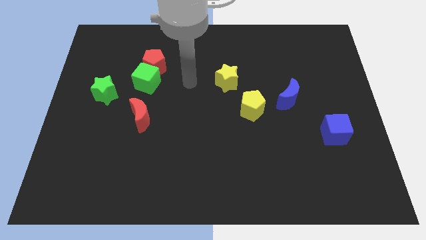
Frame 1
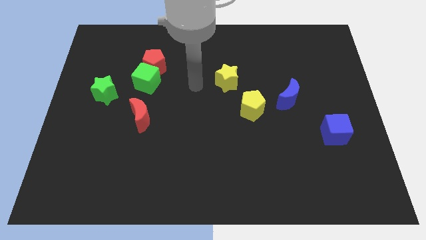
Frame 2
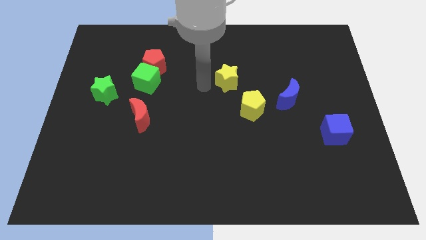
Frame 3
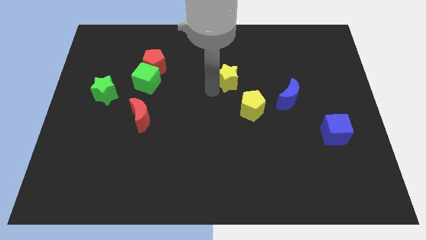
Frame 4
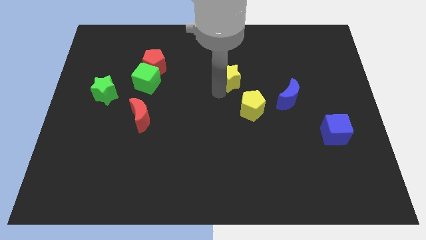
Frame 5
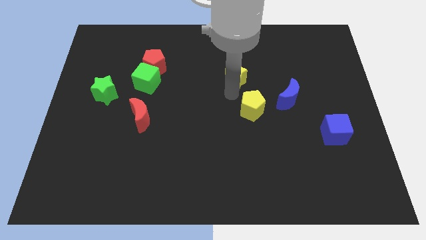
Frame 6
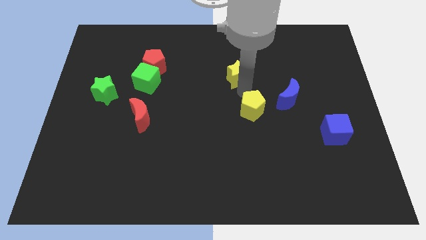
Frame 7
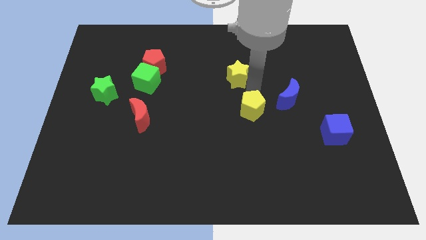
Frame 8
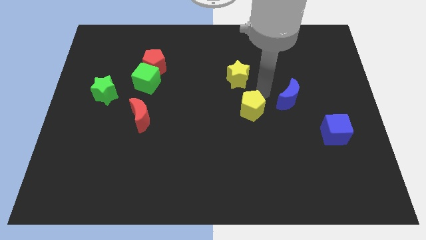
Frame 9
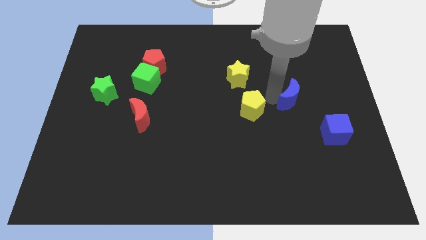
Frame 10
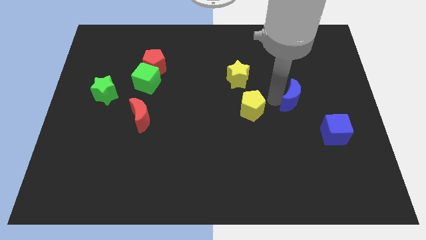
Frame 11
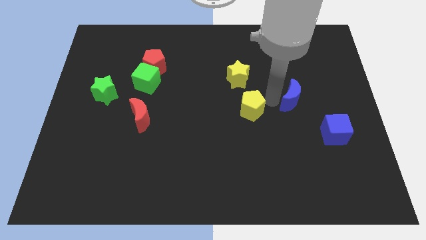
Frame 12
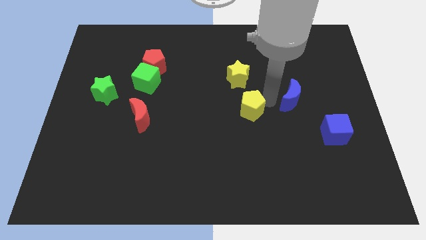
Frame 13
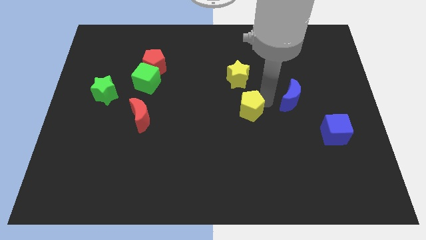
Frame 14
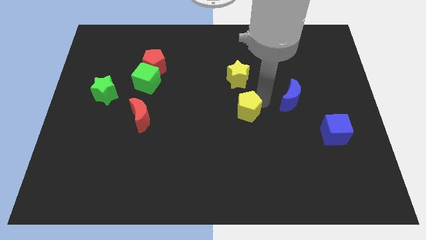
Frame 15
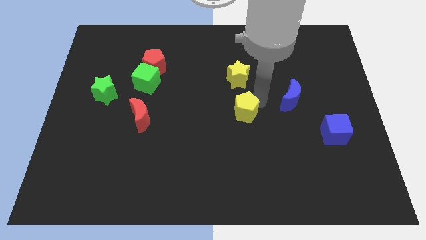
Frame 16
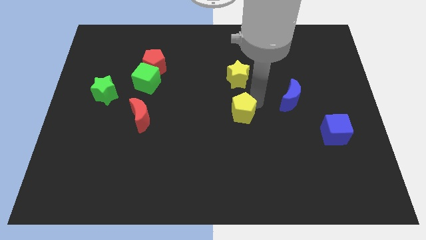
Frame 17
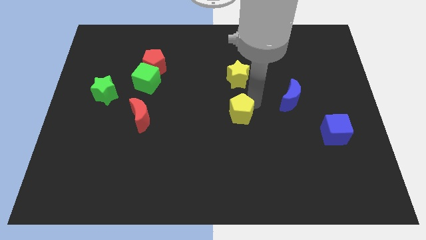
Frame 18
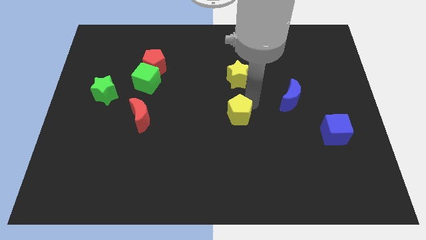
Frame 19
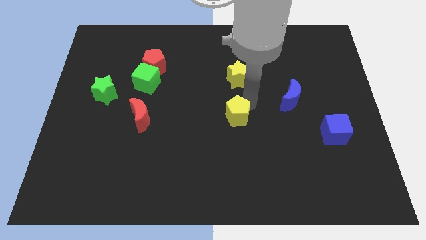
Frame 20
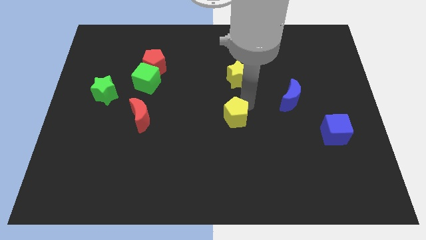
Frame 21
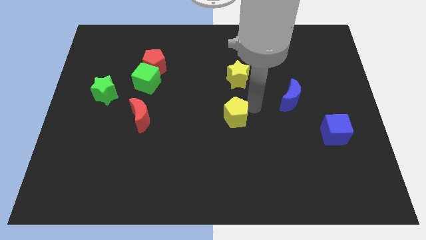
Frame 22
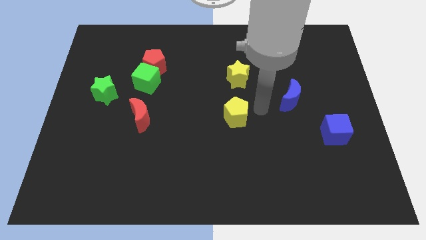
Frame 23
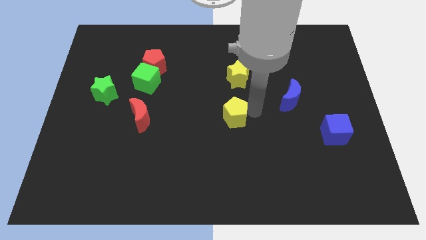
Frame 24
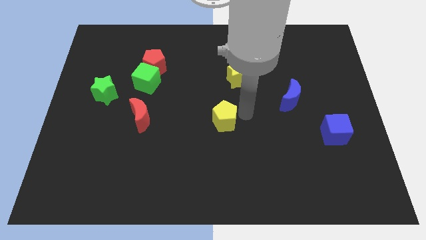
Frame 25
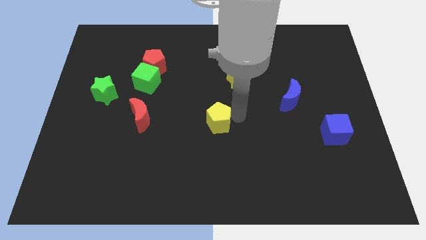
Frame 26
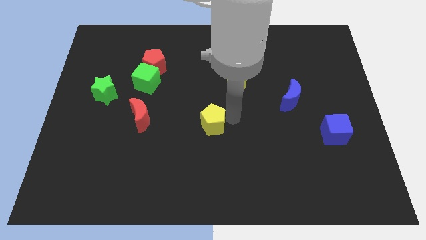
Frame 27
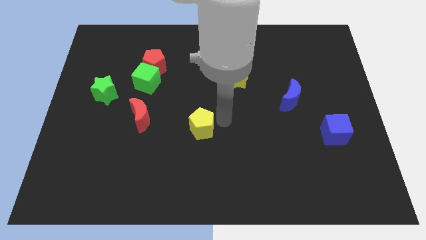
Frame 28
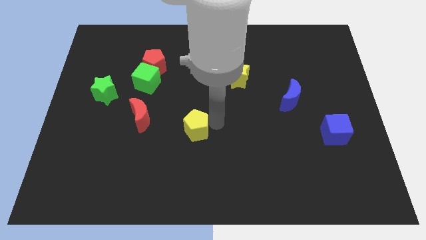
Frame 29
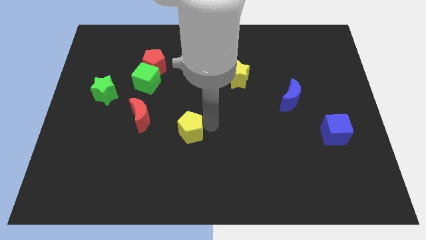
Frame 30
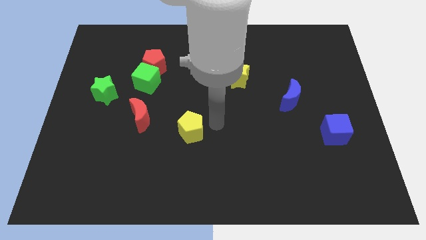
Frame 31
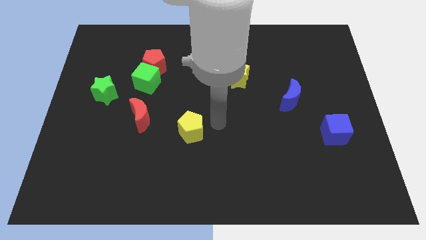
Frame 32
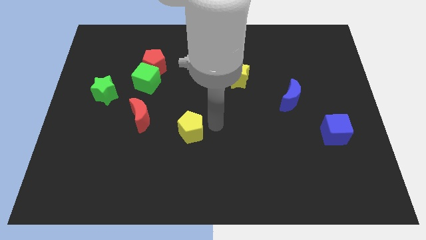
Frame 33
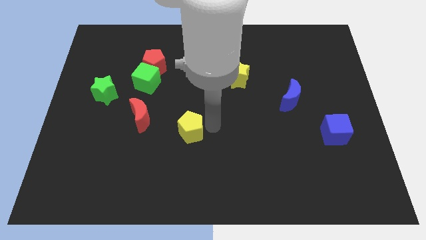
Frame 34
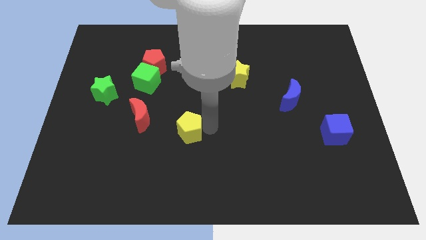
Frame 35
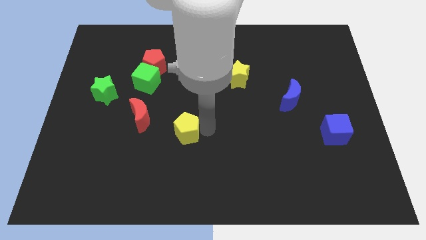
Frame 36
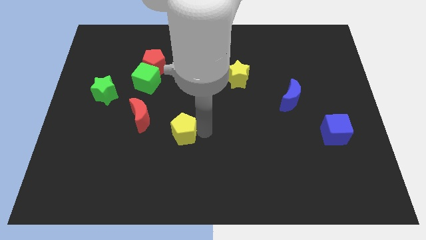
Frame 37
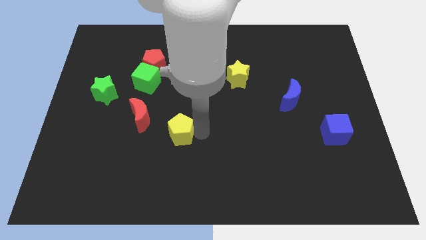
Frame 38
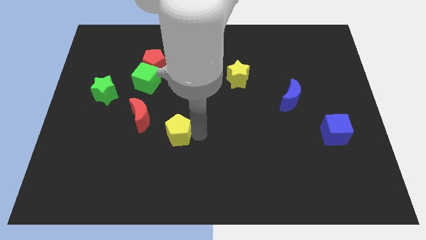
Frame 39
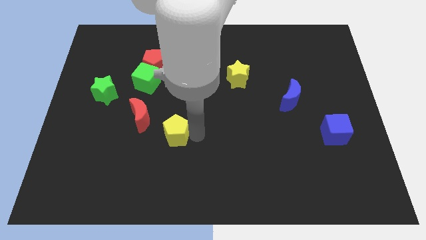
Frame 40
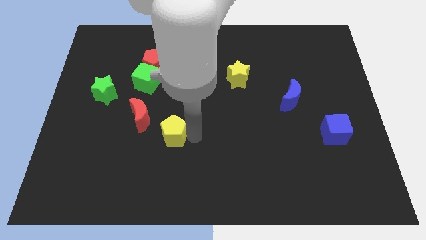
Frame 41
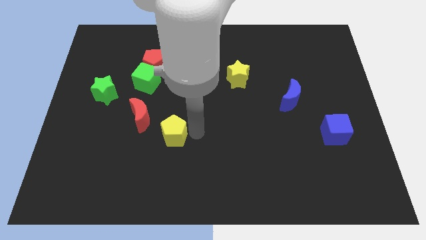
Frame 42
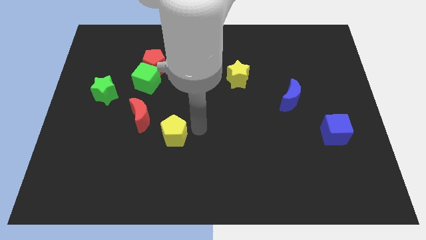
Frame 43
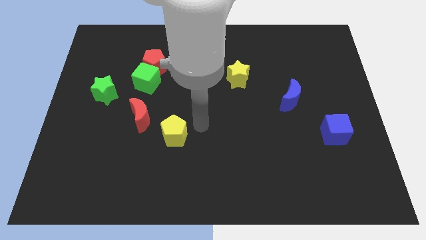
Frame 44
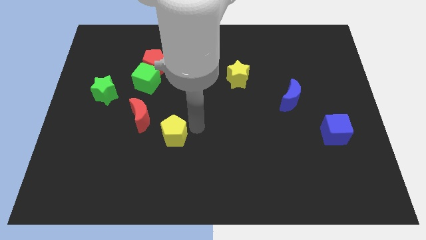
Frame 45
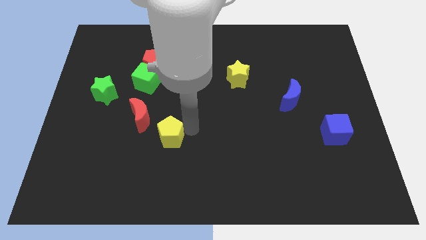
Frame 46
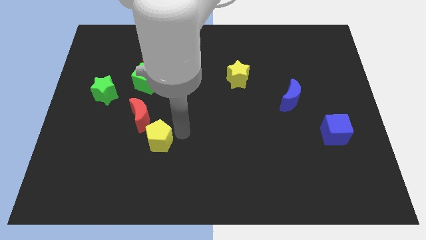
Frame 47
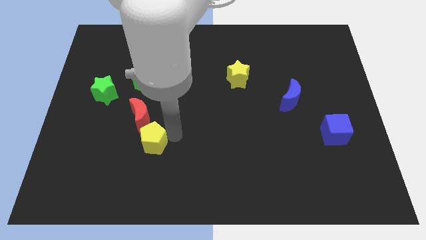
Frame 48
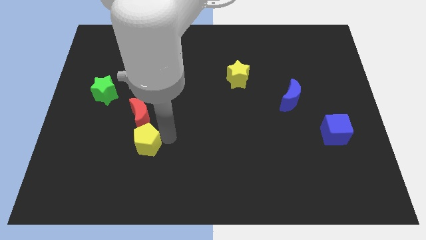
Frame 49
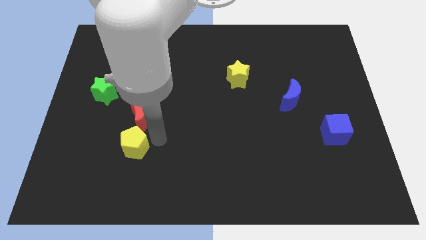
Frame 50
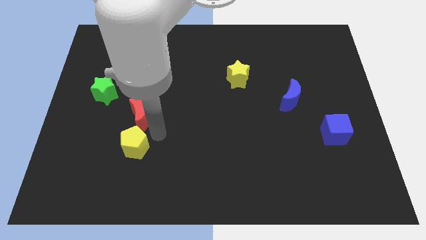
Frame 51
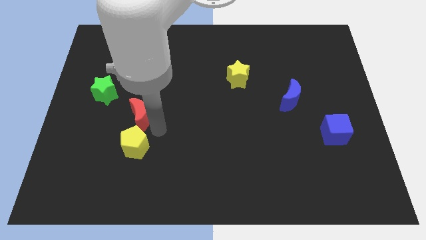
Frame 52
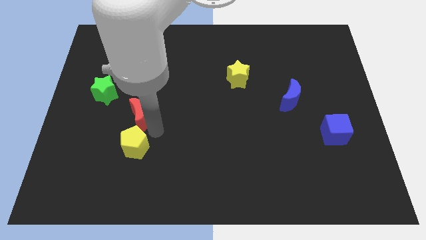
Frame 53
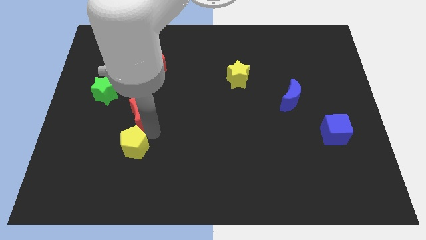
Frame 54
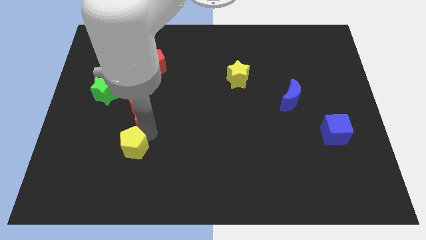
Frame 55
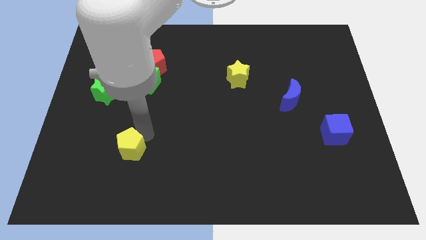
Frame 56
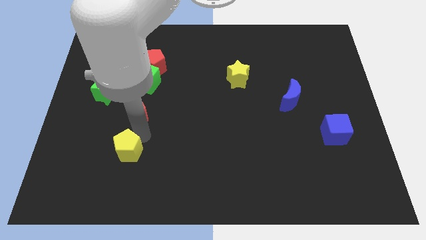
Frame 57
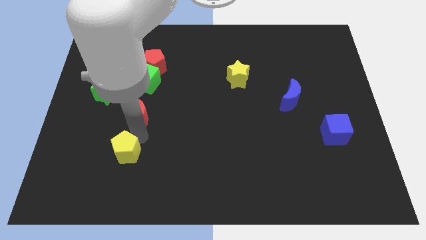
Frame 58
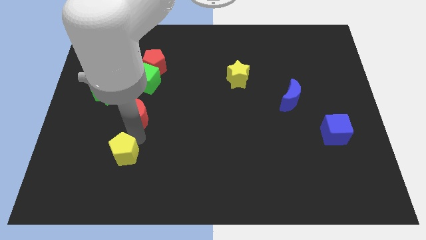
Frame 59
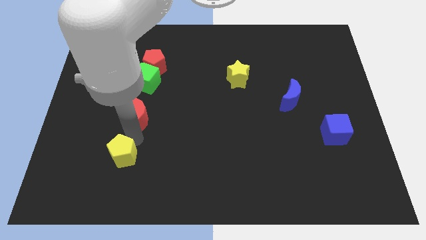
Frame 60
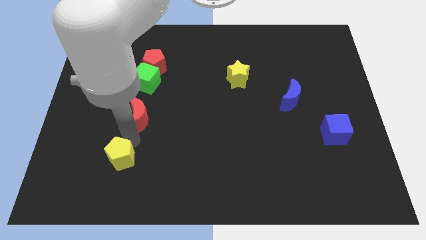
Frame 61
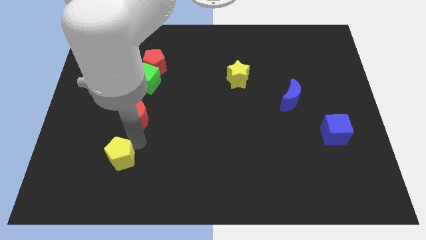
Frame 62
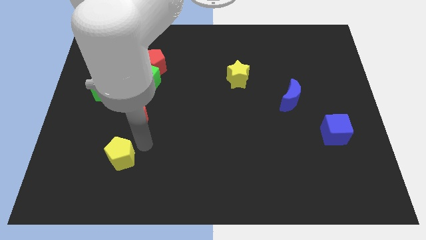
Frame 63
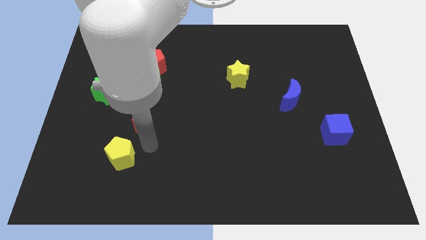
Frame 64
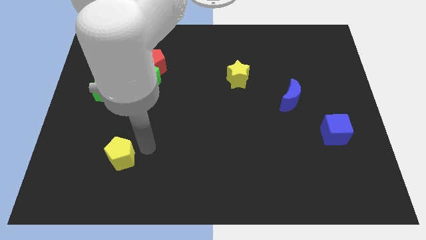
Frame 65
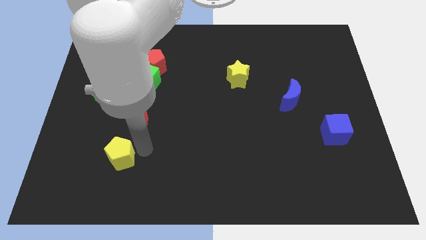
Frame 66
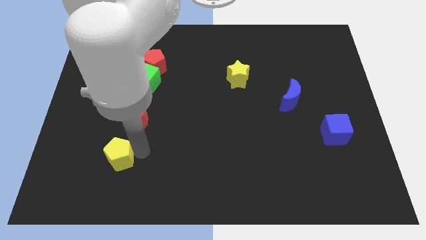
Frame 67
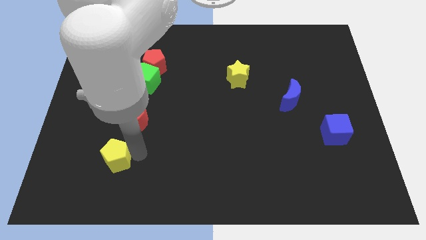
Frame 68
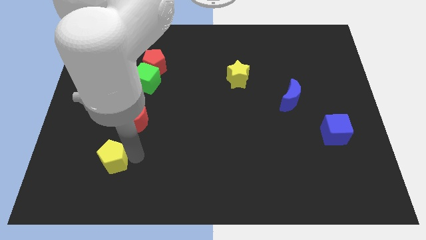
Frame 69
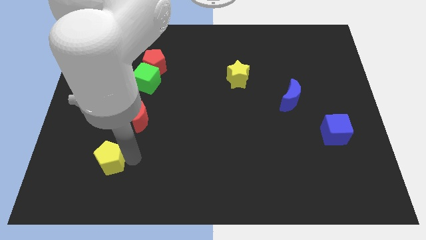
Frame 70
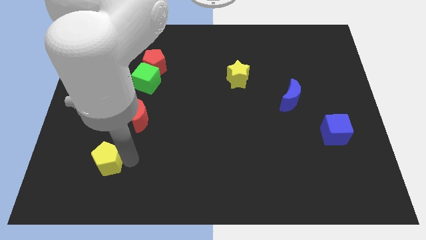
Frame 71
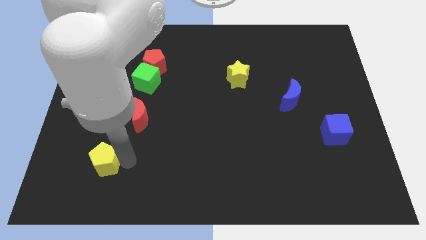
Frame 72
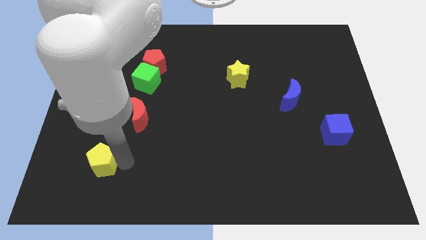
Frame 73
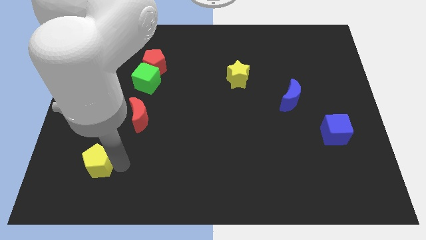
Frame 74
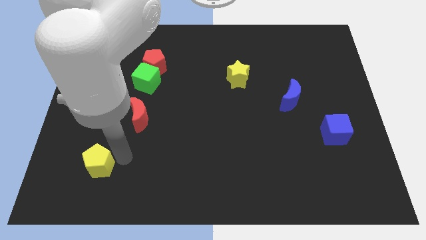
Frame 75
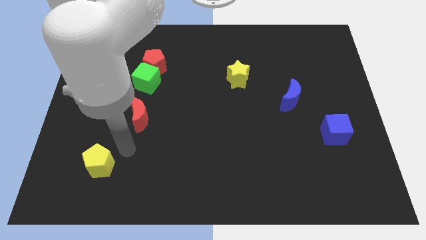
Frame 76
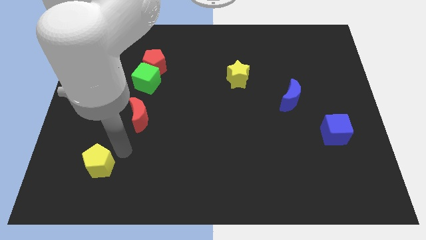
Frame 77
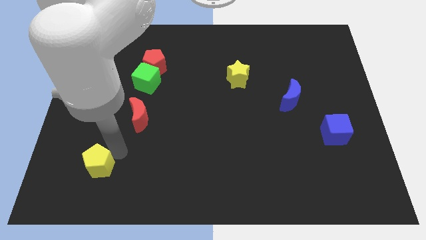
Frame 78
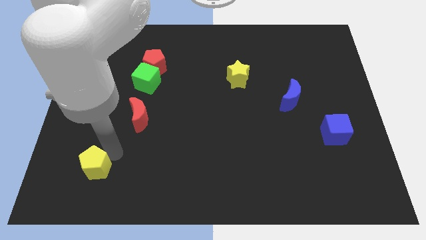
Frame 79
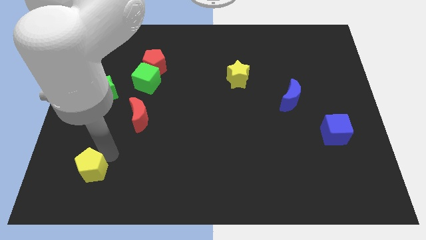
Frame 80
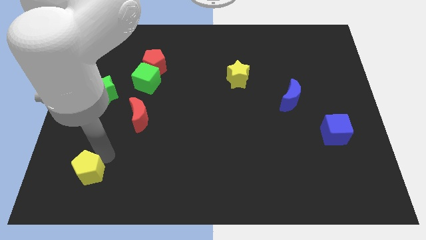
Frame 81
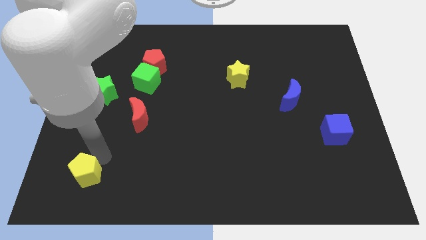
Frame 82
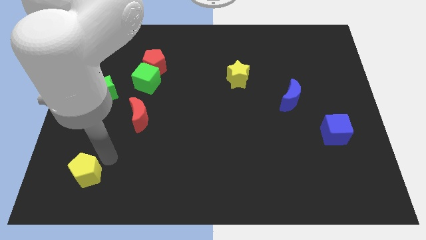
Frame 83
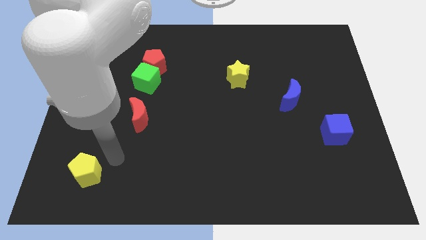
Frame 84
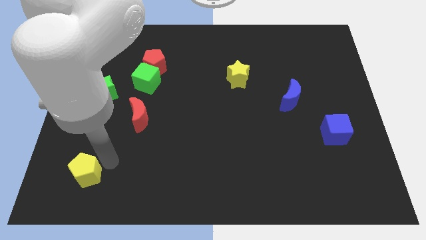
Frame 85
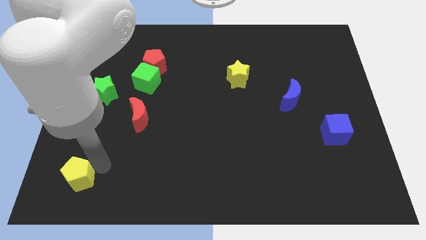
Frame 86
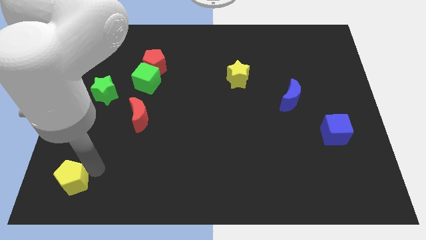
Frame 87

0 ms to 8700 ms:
push the yellow pentagon to the bottom left corner
